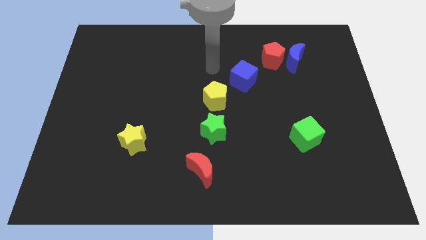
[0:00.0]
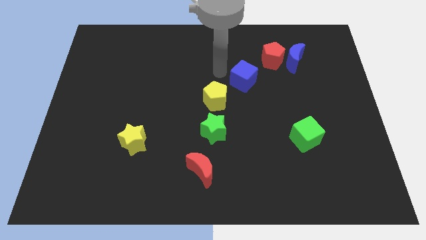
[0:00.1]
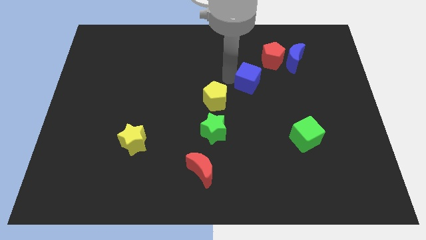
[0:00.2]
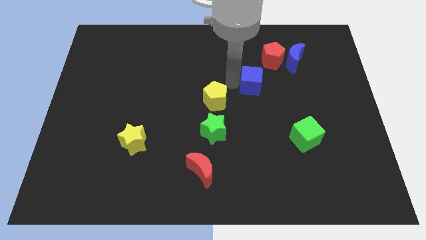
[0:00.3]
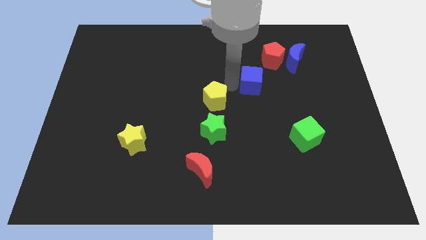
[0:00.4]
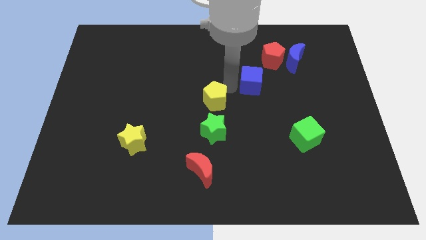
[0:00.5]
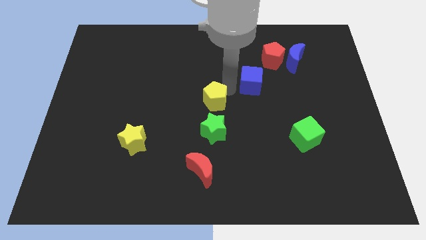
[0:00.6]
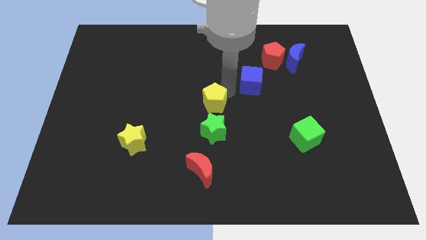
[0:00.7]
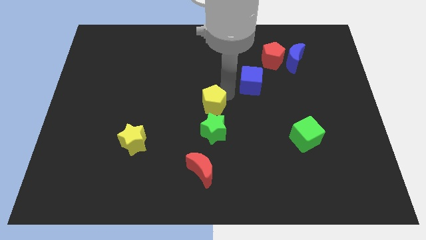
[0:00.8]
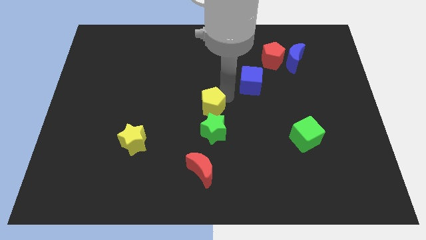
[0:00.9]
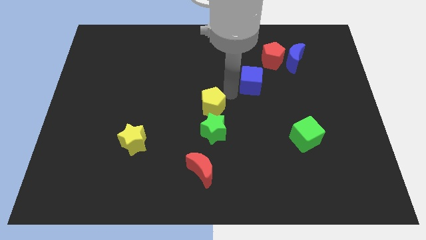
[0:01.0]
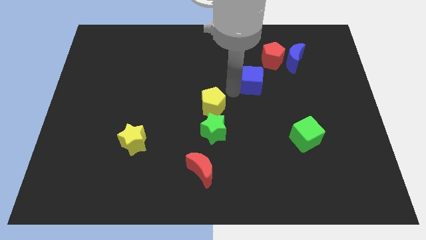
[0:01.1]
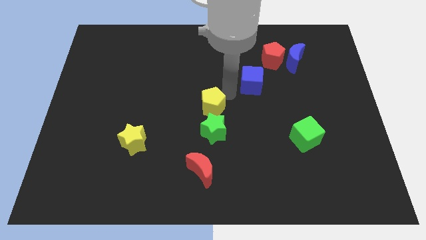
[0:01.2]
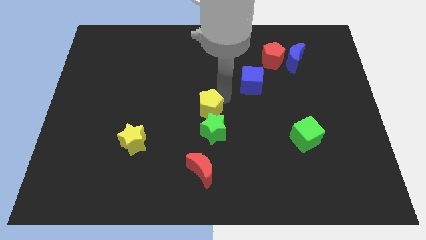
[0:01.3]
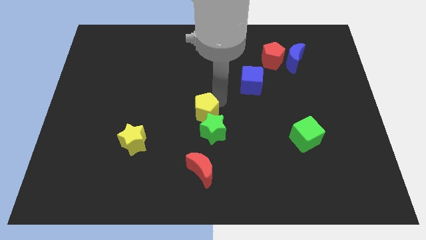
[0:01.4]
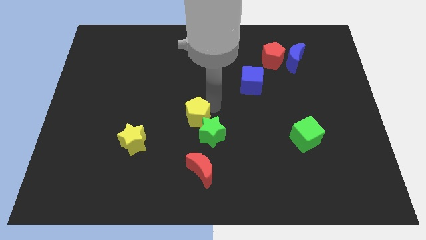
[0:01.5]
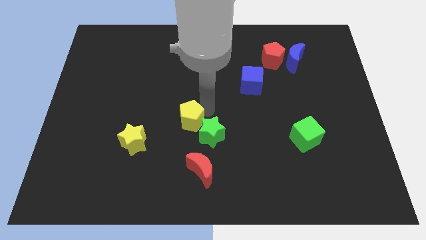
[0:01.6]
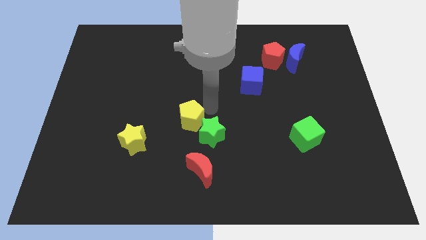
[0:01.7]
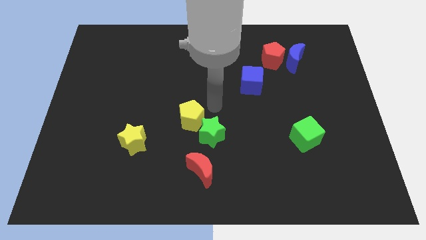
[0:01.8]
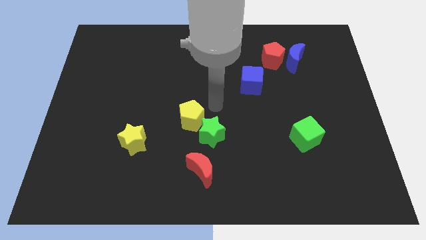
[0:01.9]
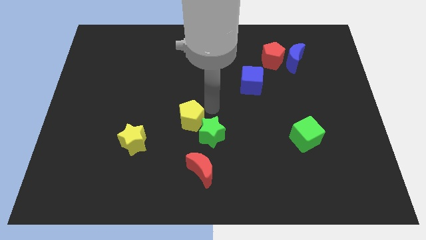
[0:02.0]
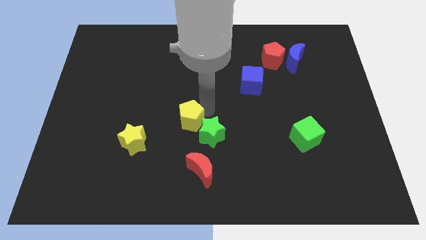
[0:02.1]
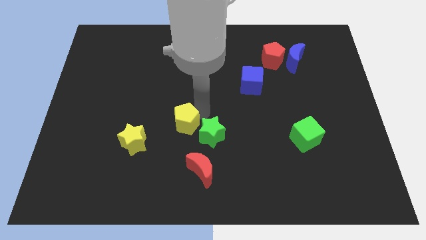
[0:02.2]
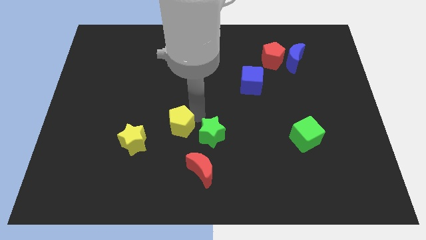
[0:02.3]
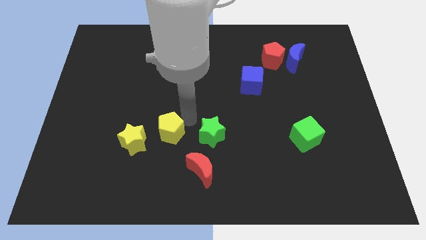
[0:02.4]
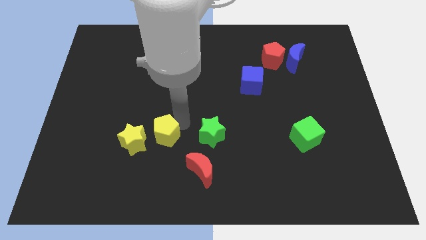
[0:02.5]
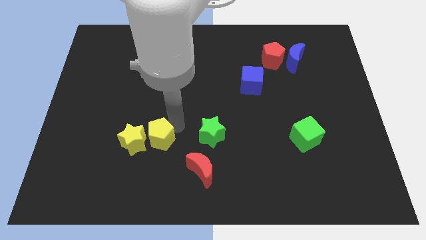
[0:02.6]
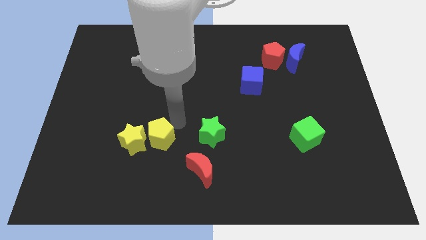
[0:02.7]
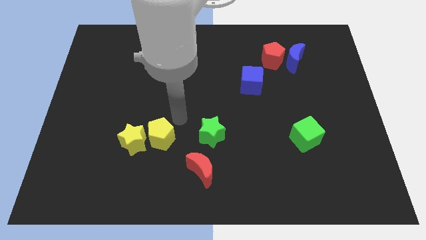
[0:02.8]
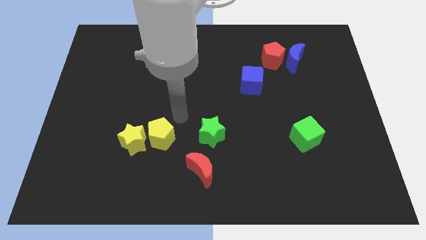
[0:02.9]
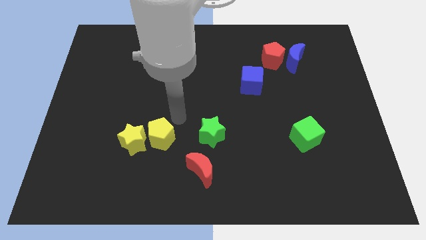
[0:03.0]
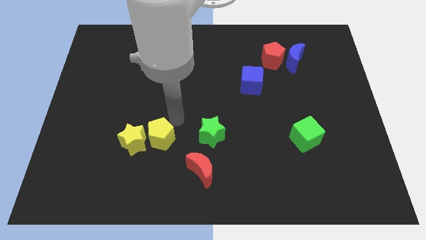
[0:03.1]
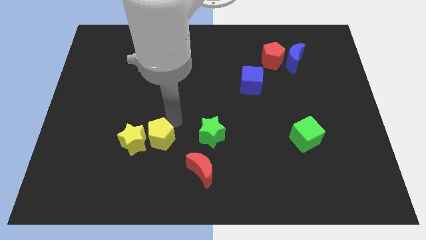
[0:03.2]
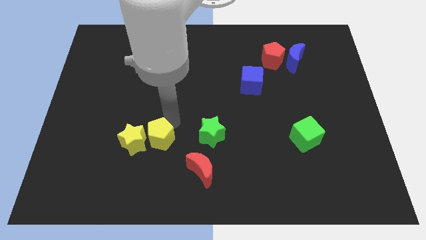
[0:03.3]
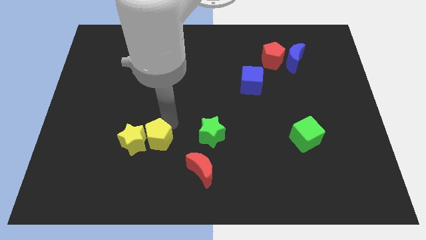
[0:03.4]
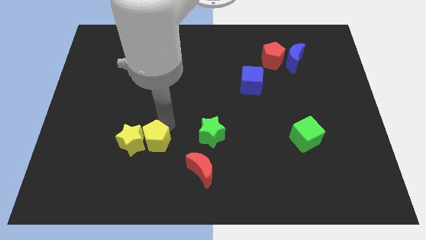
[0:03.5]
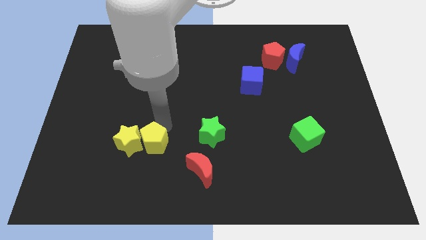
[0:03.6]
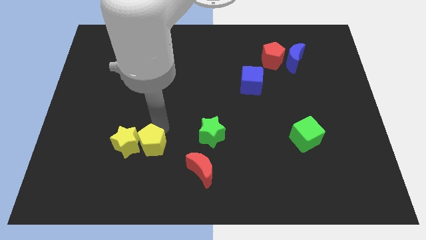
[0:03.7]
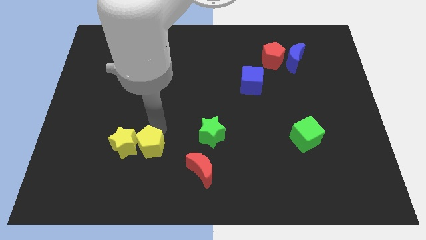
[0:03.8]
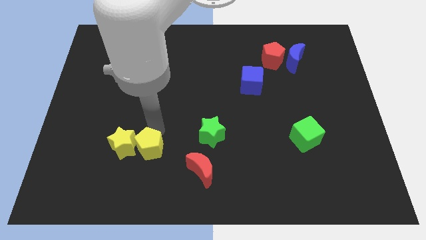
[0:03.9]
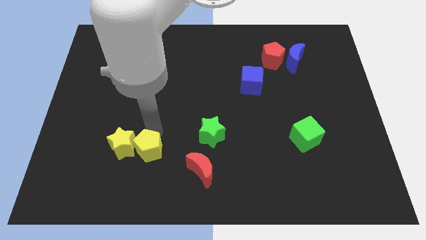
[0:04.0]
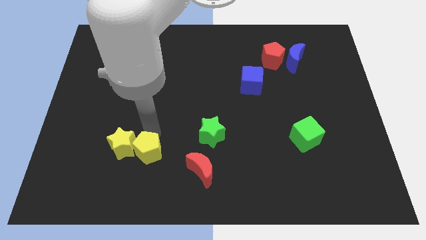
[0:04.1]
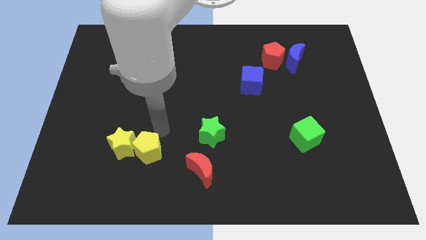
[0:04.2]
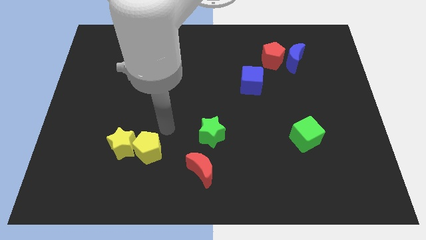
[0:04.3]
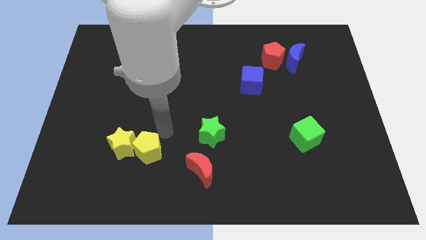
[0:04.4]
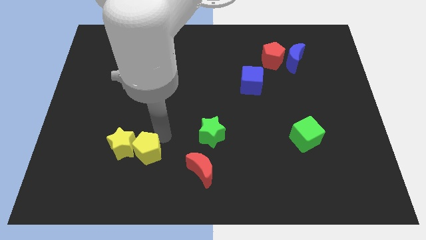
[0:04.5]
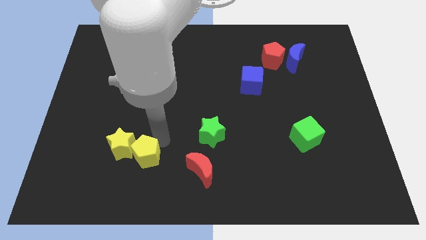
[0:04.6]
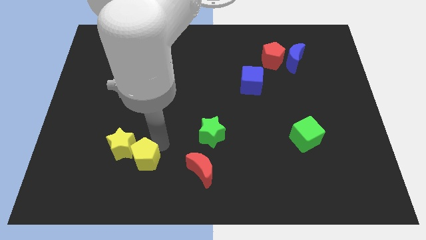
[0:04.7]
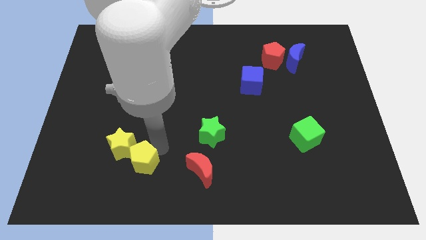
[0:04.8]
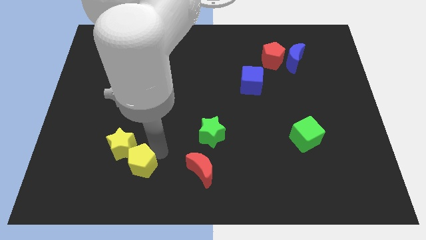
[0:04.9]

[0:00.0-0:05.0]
push the yellow pentagon below the yellow star

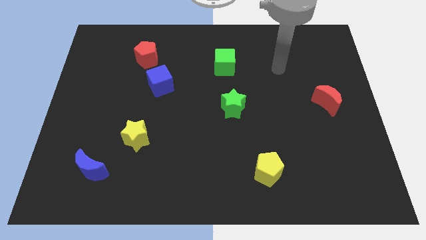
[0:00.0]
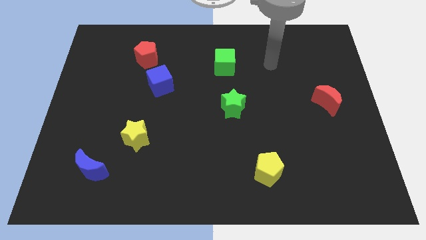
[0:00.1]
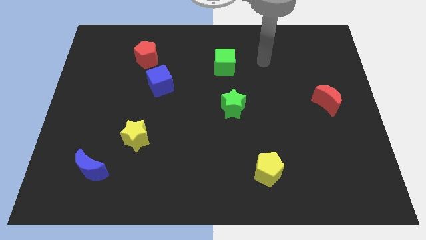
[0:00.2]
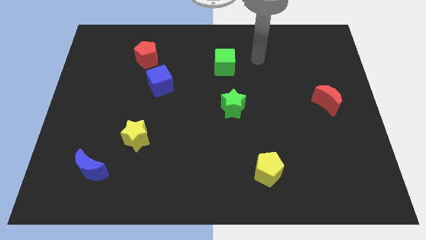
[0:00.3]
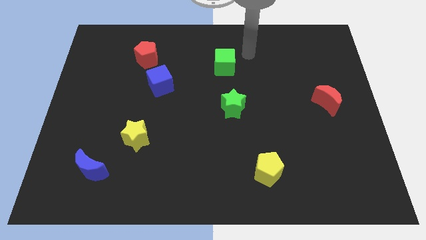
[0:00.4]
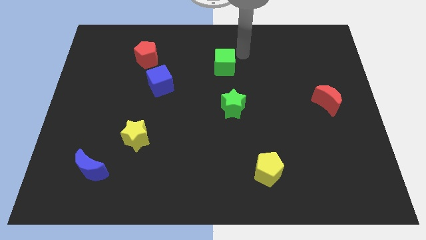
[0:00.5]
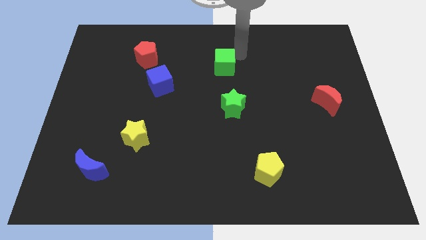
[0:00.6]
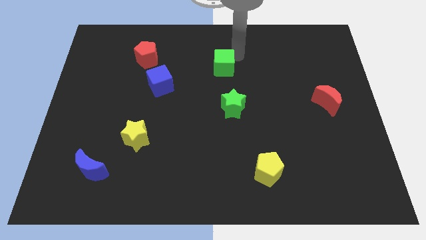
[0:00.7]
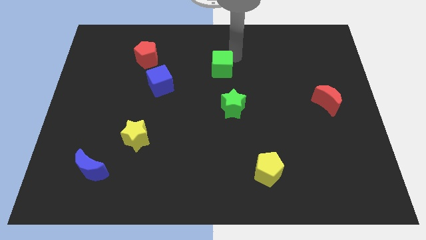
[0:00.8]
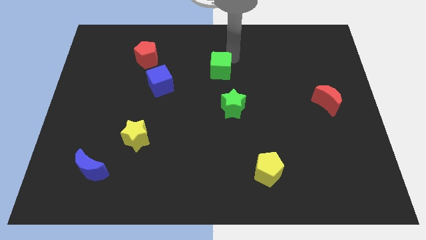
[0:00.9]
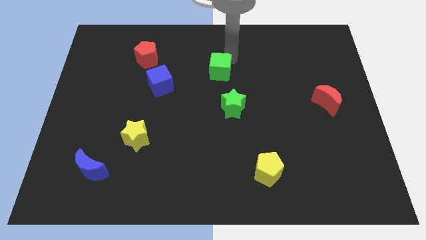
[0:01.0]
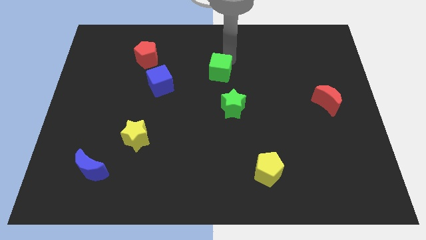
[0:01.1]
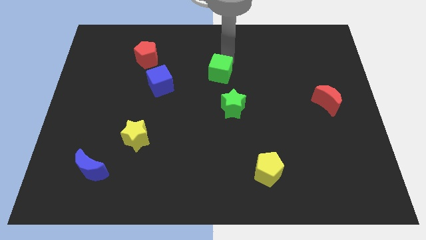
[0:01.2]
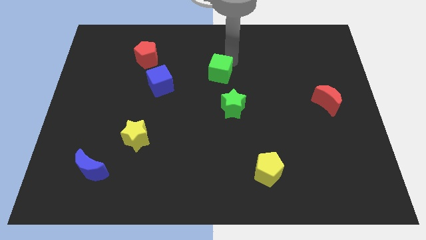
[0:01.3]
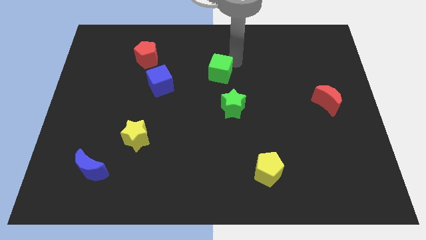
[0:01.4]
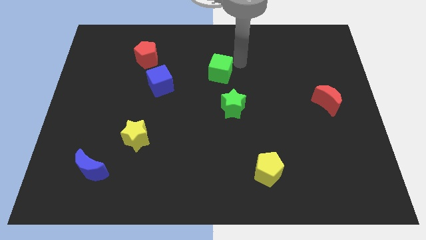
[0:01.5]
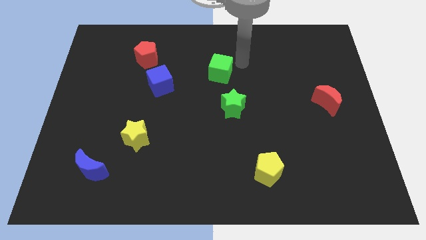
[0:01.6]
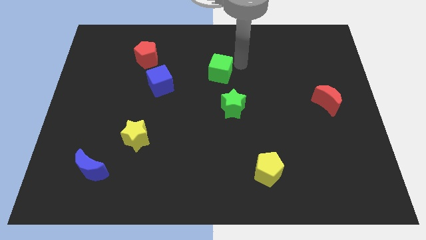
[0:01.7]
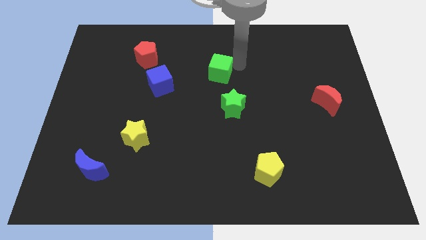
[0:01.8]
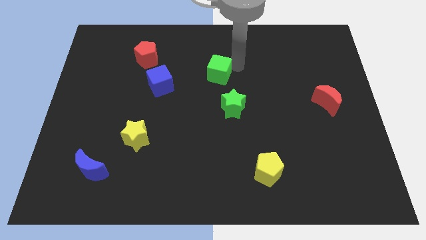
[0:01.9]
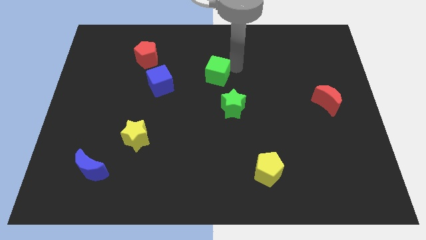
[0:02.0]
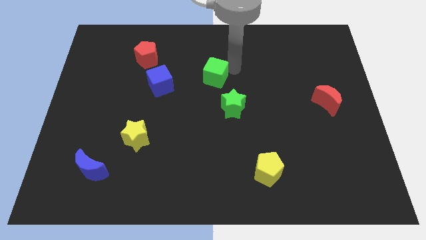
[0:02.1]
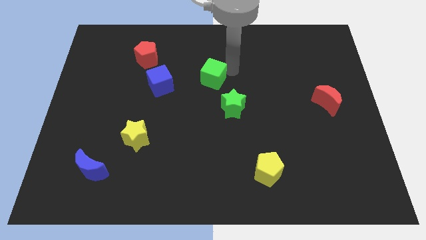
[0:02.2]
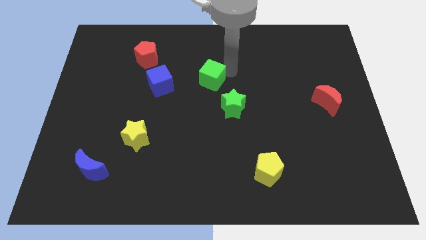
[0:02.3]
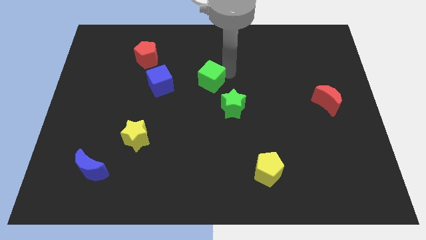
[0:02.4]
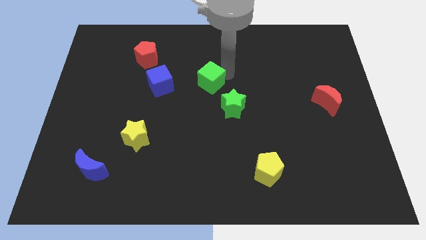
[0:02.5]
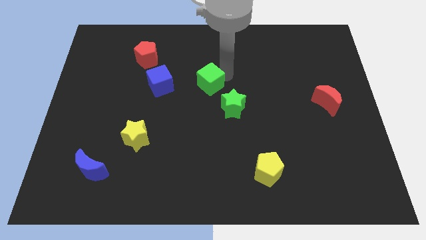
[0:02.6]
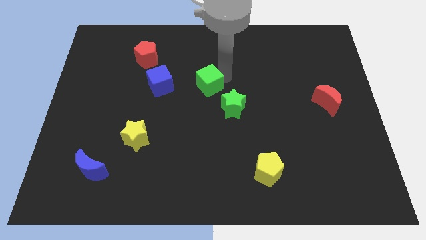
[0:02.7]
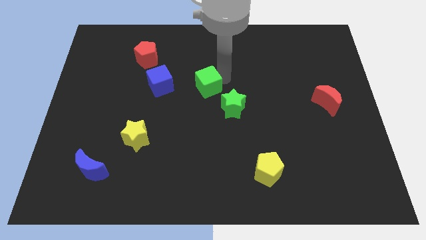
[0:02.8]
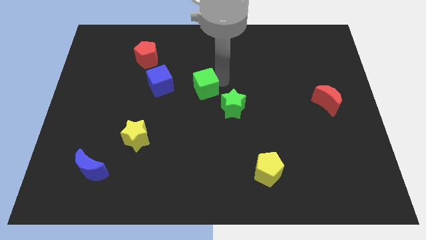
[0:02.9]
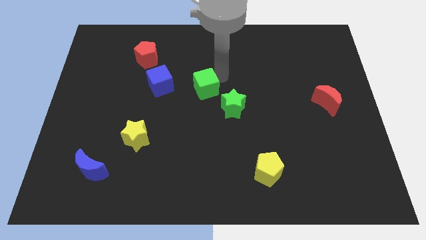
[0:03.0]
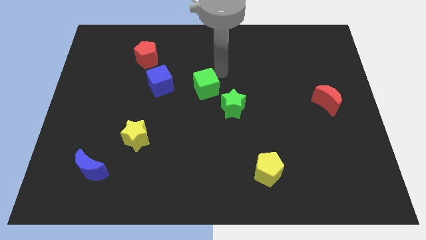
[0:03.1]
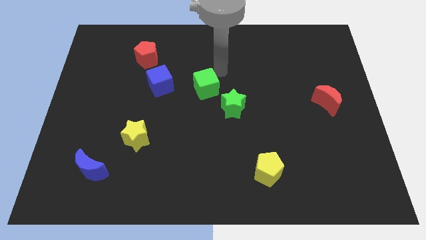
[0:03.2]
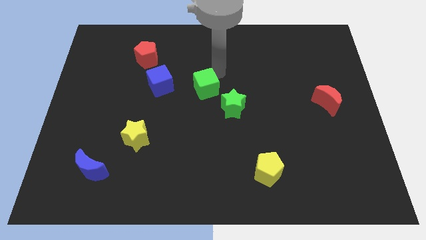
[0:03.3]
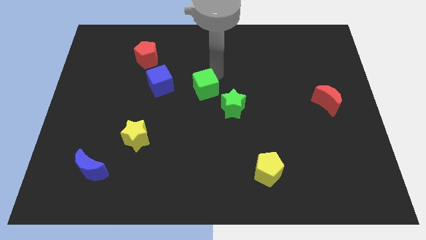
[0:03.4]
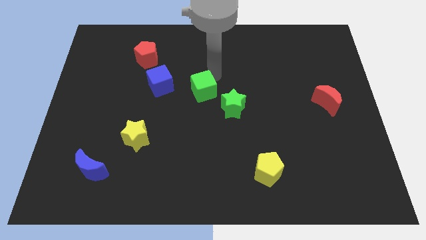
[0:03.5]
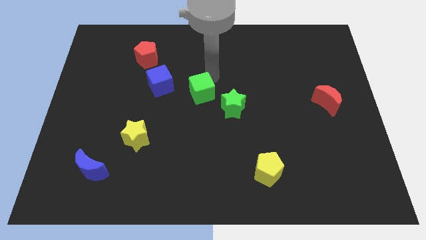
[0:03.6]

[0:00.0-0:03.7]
push the green cube to the left of the green star
